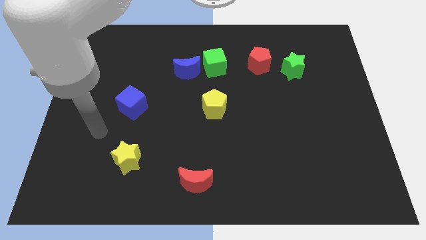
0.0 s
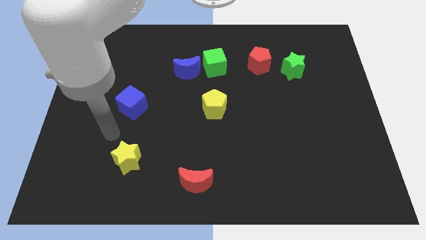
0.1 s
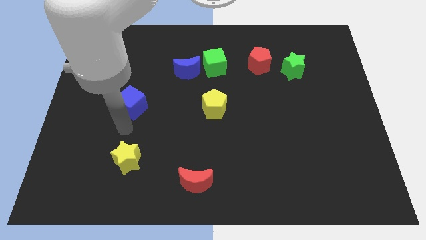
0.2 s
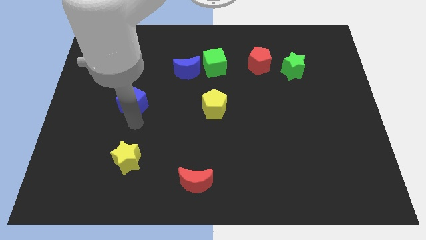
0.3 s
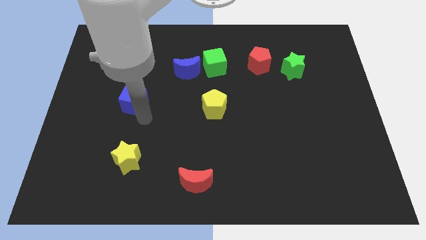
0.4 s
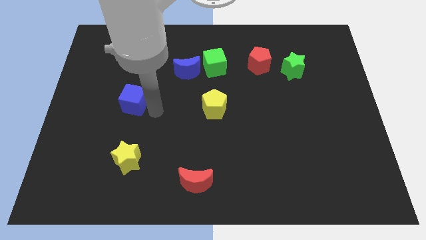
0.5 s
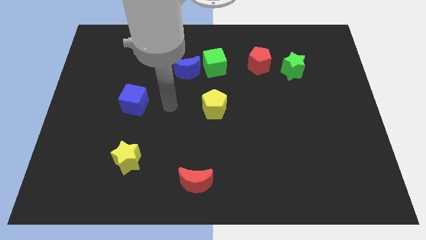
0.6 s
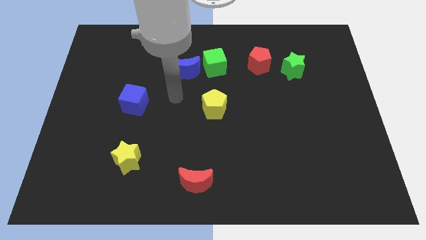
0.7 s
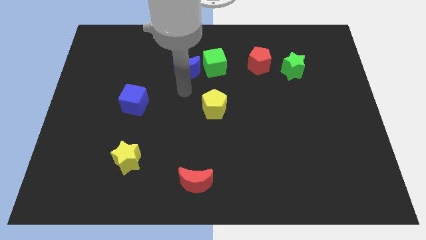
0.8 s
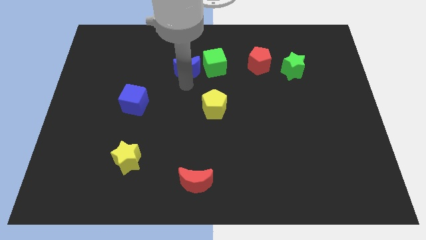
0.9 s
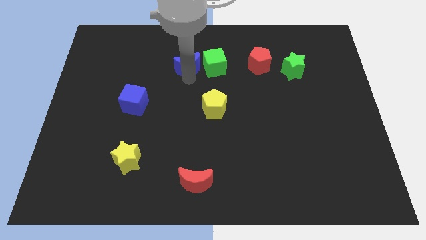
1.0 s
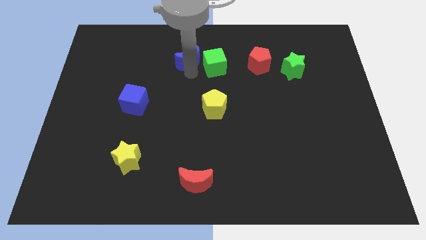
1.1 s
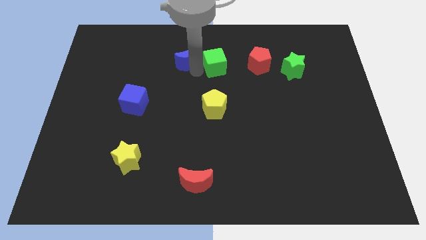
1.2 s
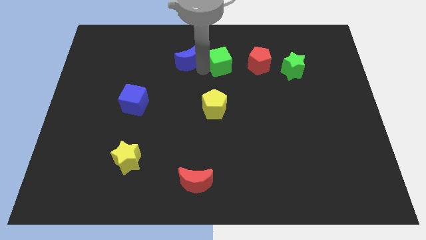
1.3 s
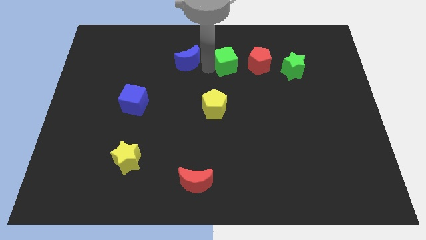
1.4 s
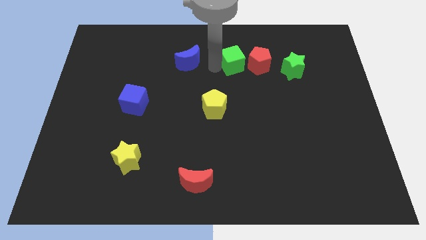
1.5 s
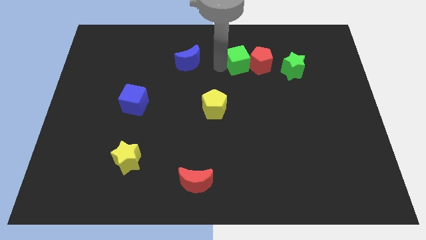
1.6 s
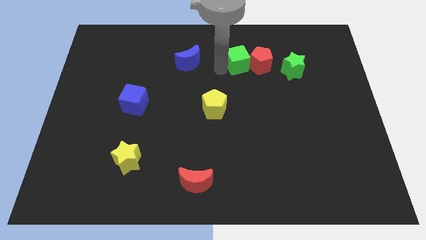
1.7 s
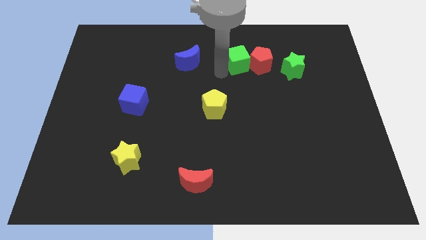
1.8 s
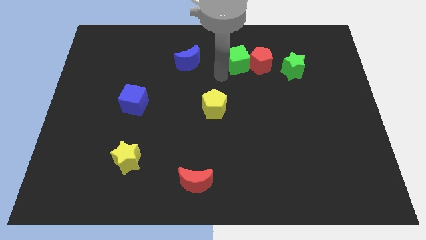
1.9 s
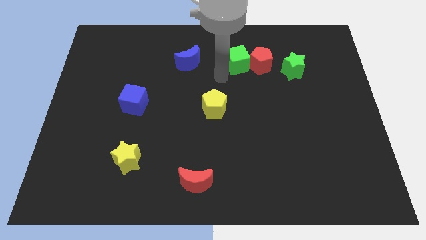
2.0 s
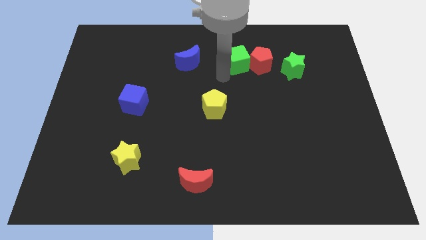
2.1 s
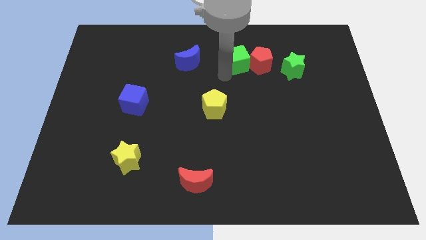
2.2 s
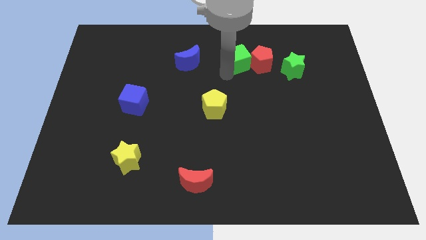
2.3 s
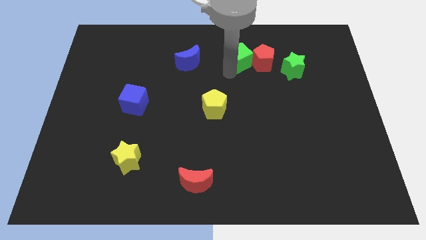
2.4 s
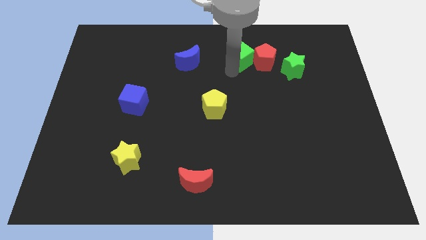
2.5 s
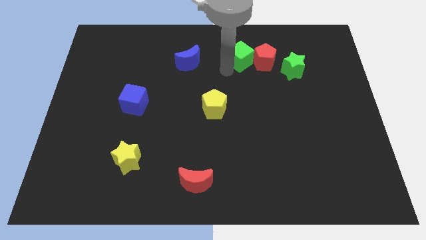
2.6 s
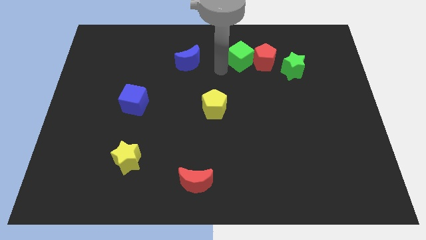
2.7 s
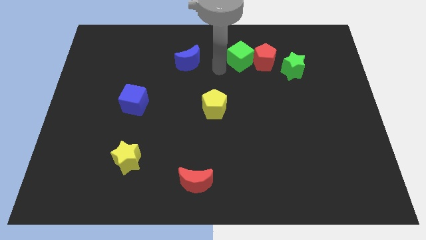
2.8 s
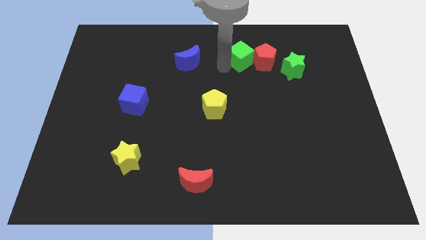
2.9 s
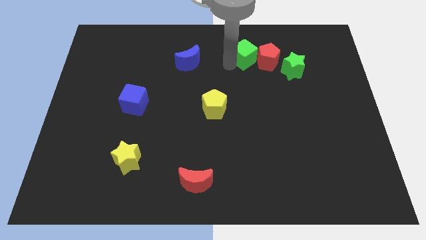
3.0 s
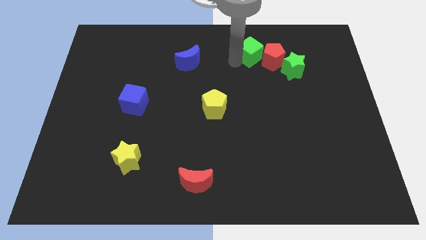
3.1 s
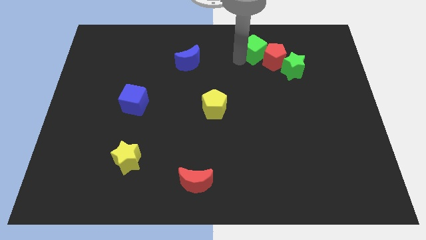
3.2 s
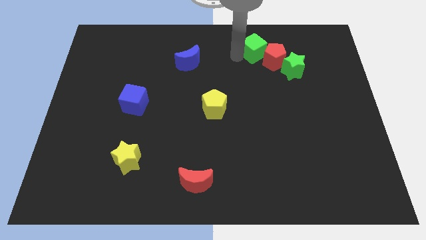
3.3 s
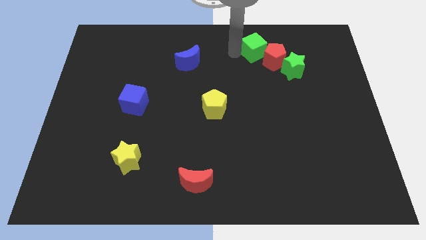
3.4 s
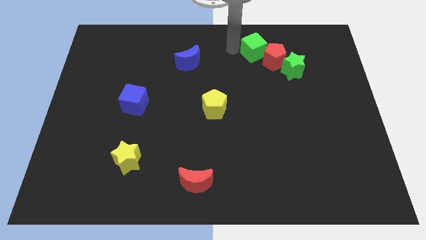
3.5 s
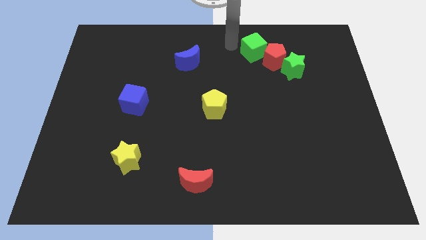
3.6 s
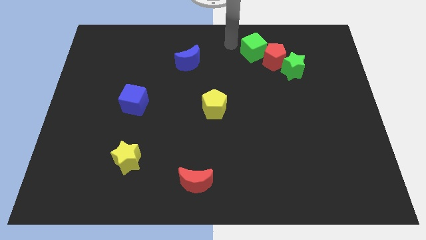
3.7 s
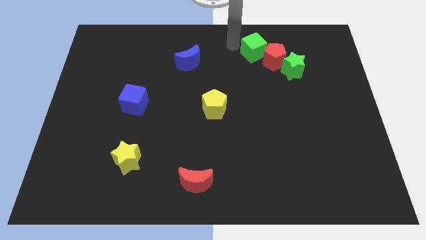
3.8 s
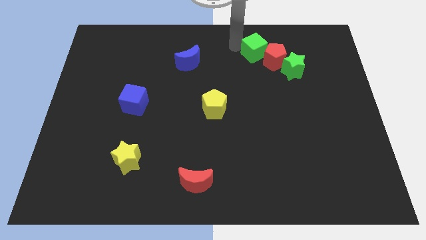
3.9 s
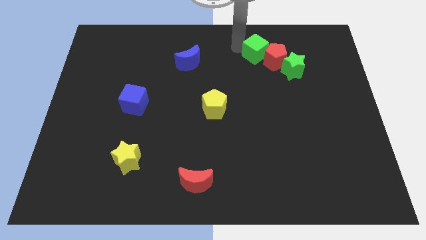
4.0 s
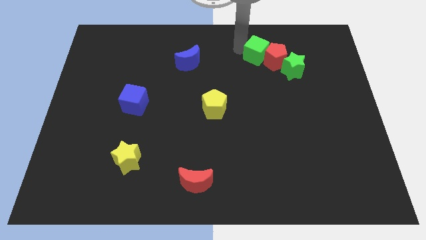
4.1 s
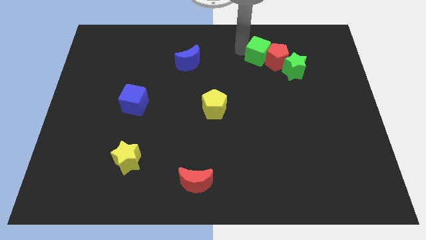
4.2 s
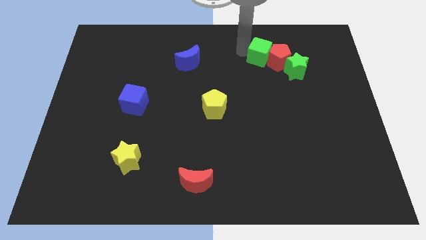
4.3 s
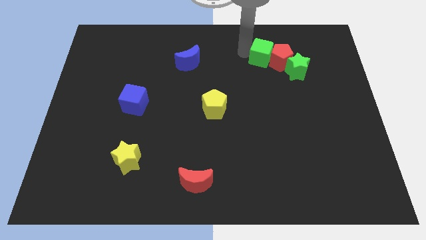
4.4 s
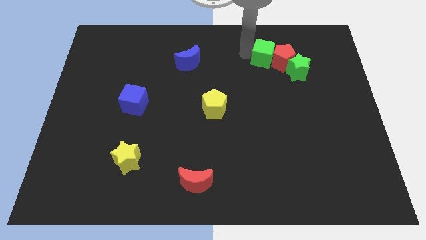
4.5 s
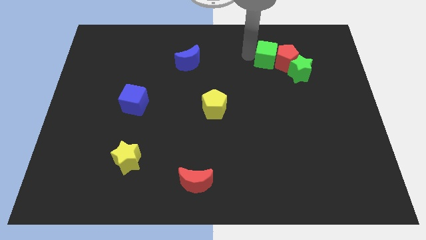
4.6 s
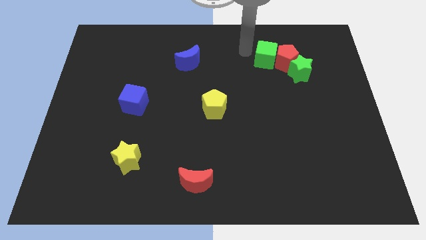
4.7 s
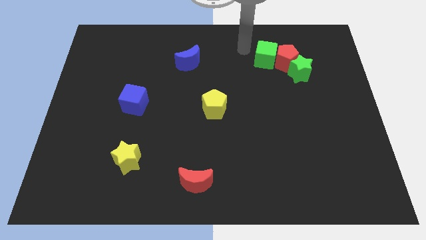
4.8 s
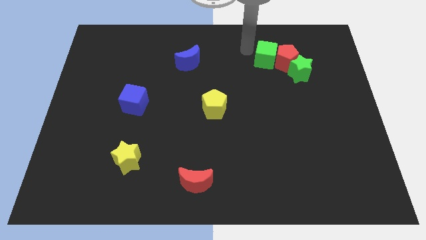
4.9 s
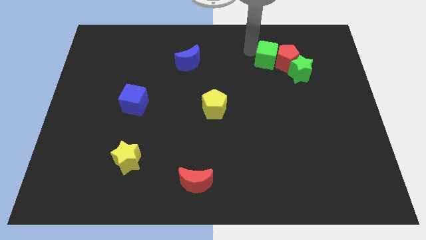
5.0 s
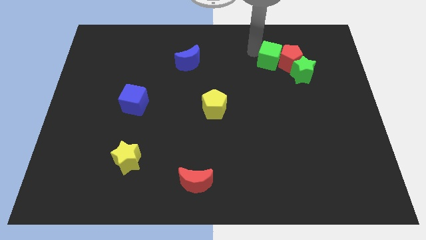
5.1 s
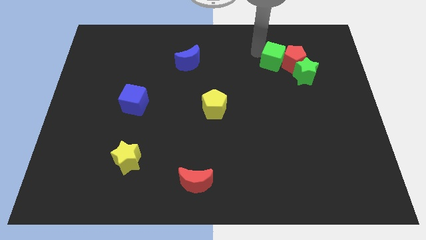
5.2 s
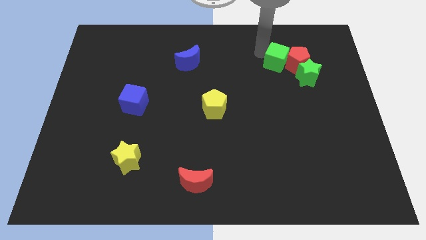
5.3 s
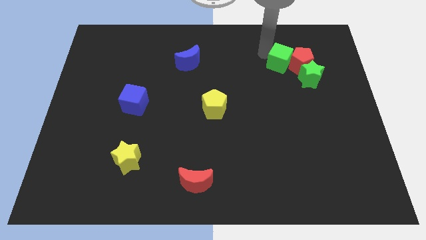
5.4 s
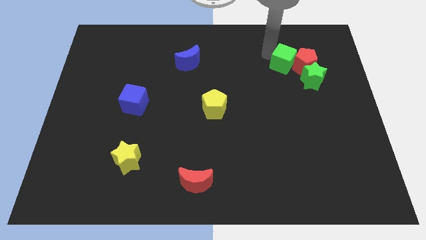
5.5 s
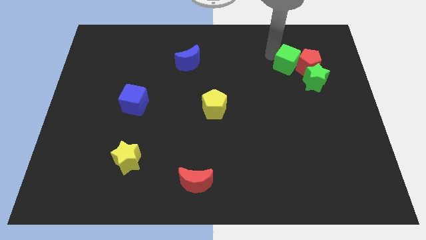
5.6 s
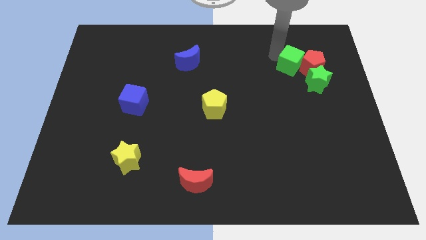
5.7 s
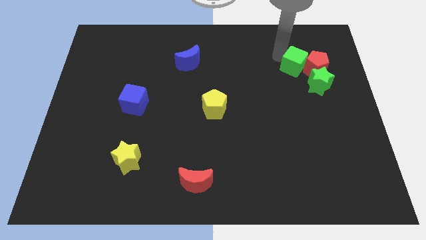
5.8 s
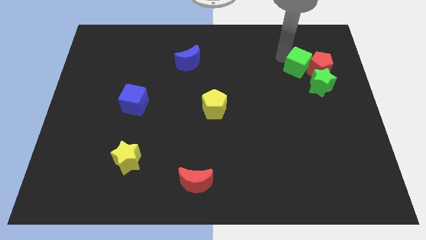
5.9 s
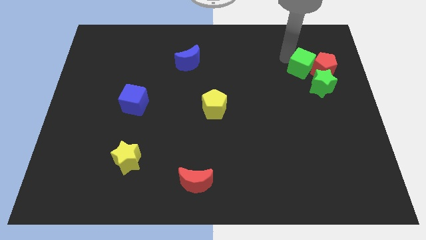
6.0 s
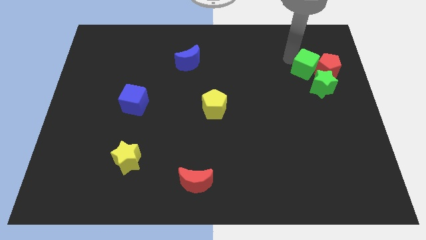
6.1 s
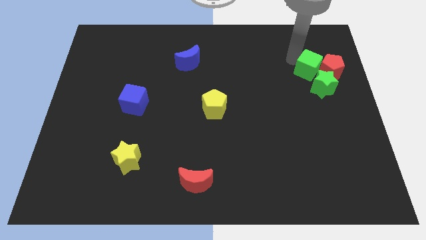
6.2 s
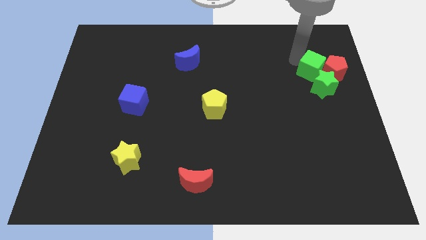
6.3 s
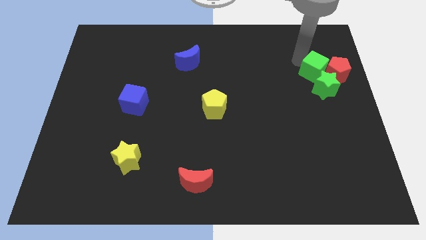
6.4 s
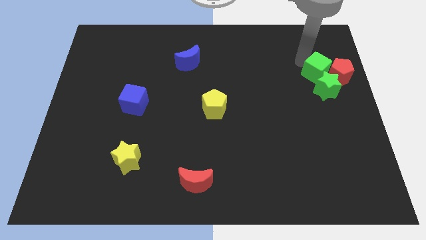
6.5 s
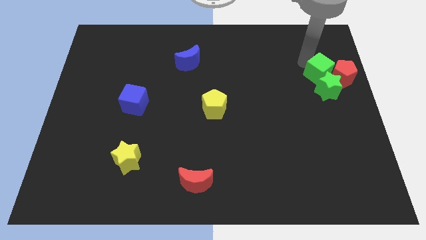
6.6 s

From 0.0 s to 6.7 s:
put the green cube next to the green star
